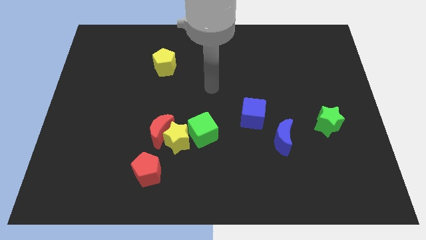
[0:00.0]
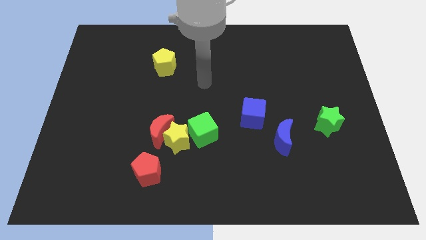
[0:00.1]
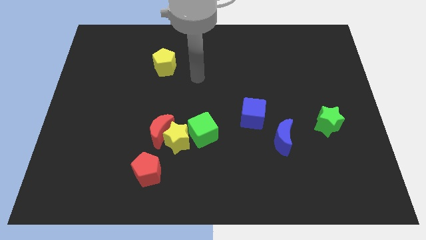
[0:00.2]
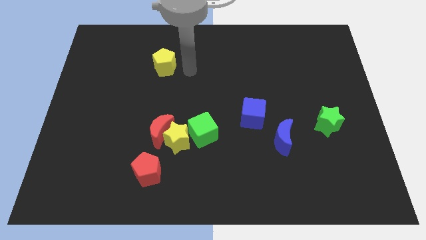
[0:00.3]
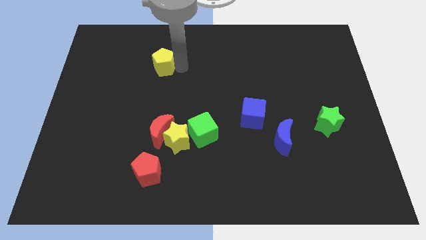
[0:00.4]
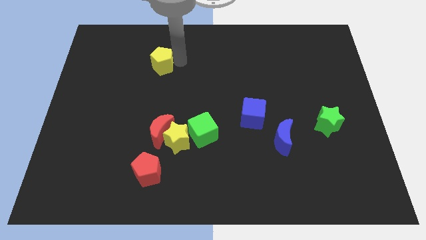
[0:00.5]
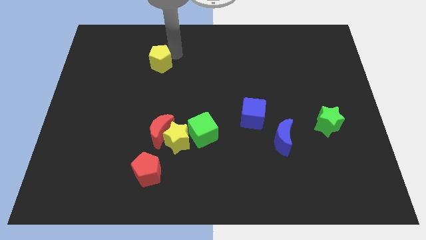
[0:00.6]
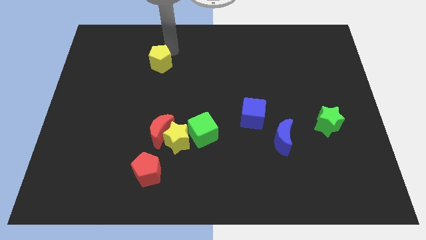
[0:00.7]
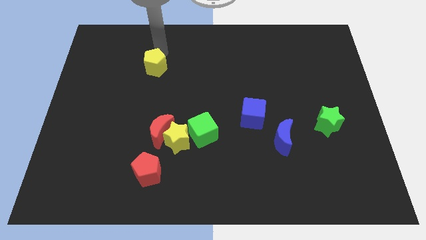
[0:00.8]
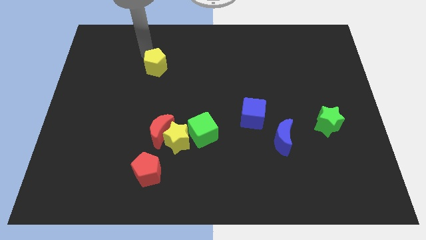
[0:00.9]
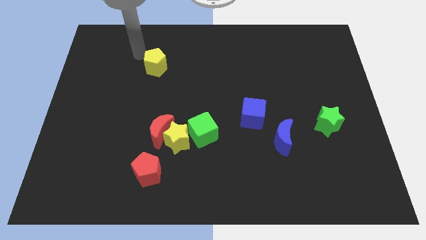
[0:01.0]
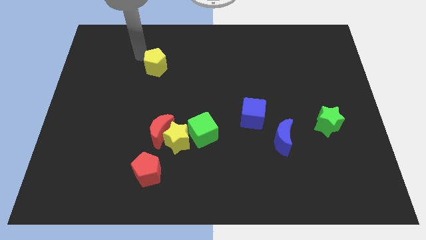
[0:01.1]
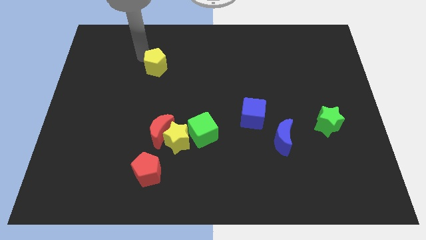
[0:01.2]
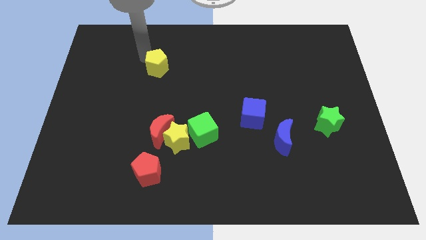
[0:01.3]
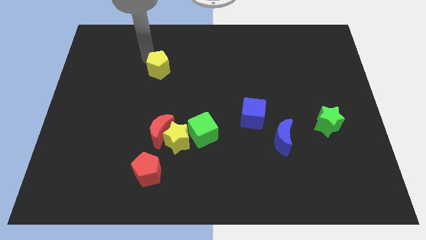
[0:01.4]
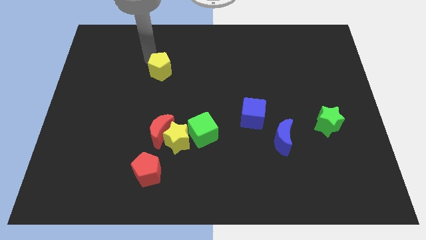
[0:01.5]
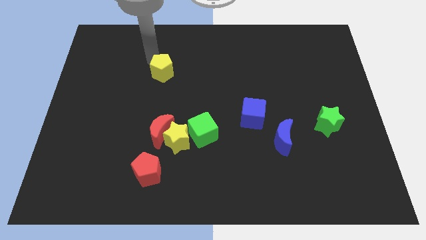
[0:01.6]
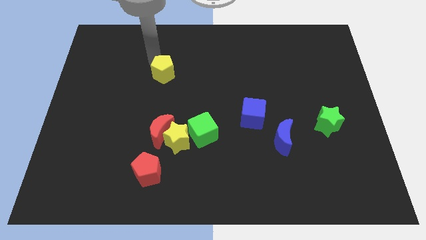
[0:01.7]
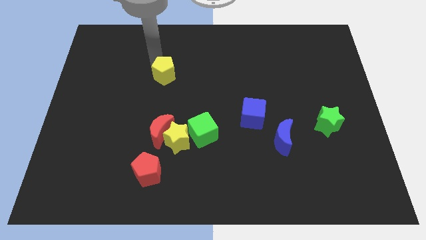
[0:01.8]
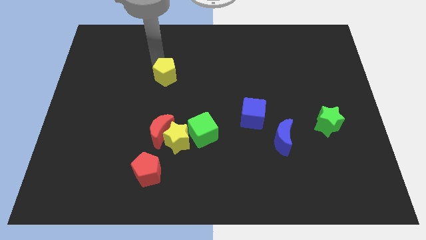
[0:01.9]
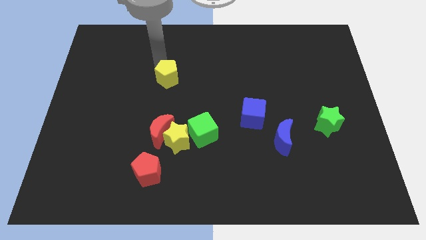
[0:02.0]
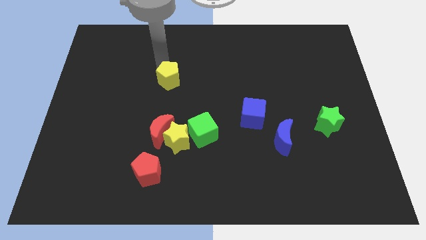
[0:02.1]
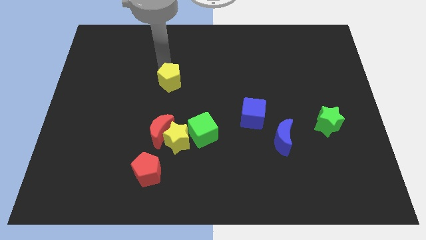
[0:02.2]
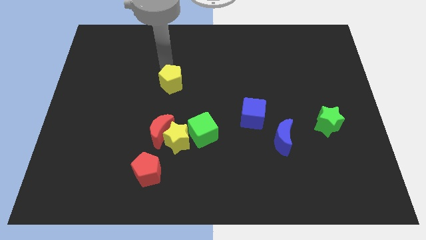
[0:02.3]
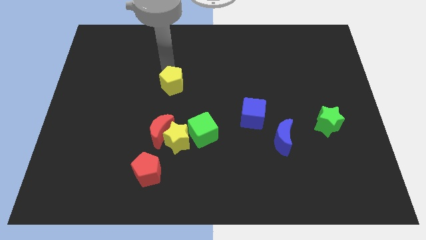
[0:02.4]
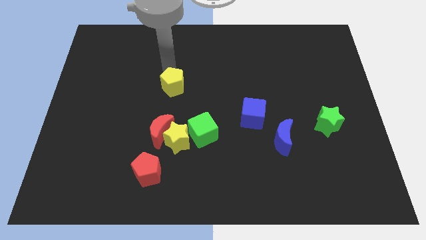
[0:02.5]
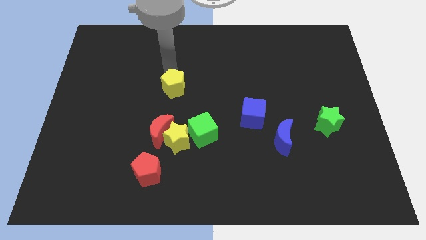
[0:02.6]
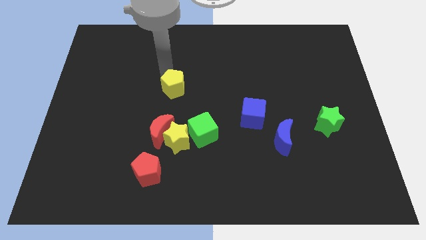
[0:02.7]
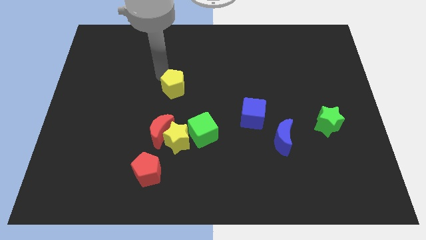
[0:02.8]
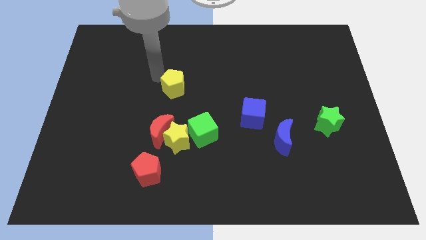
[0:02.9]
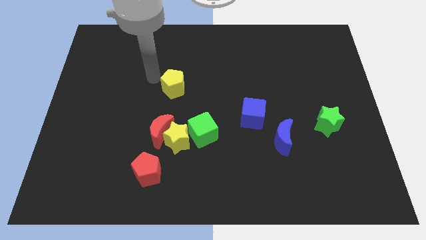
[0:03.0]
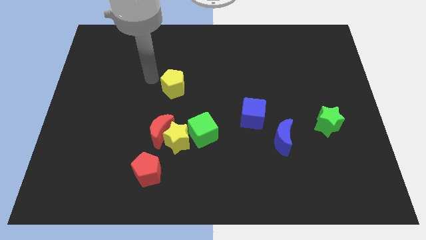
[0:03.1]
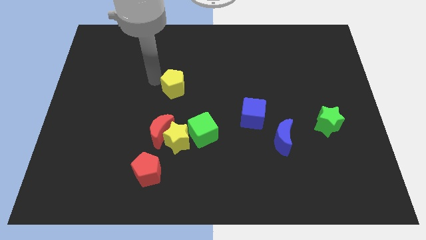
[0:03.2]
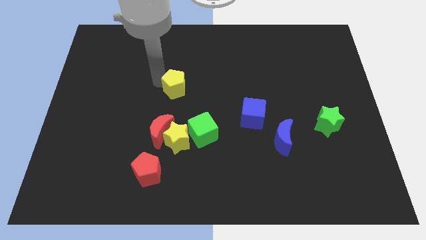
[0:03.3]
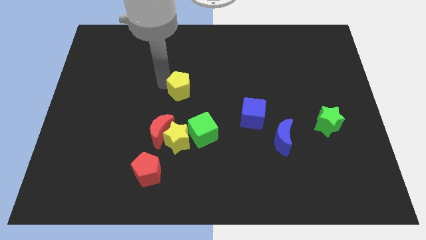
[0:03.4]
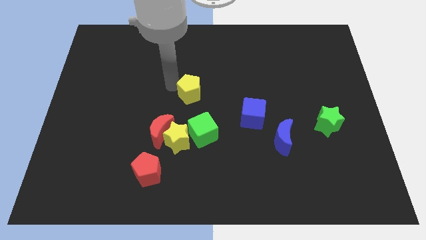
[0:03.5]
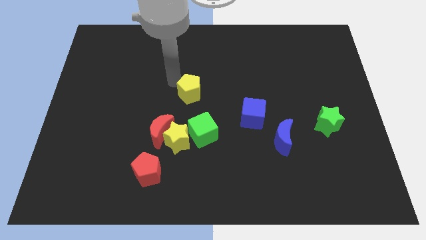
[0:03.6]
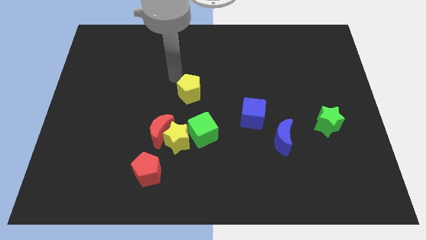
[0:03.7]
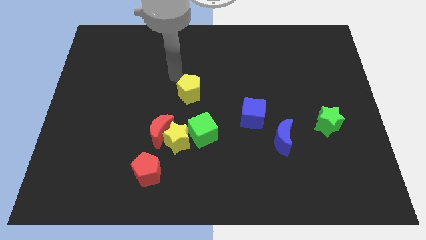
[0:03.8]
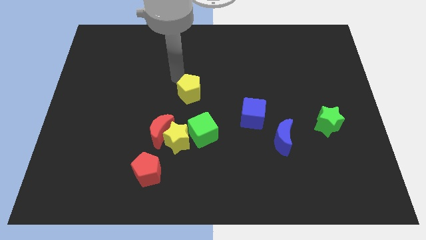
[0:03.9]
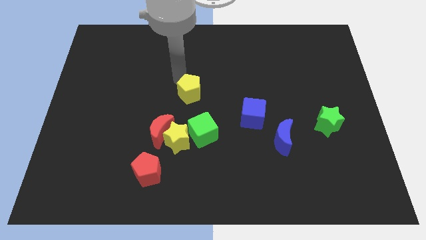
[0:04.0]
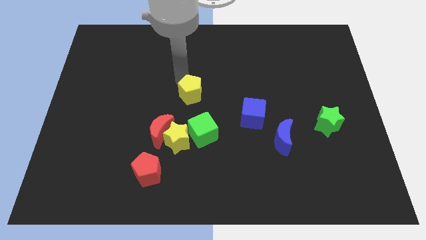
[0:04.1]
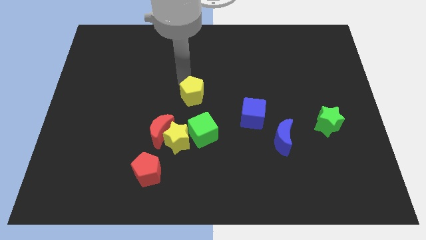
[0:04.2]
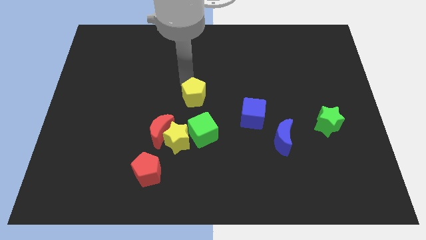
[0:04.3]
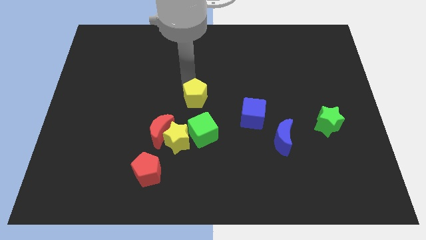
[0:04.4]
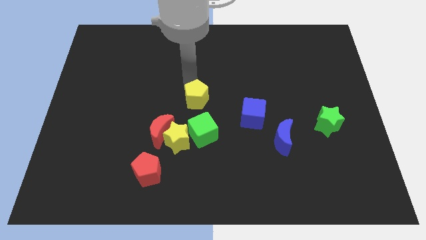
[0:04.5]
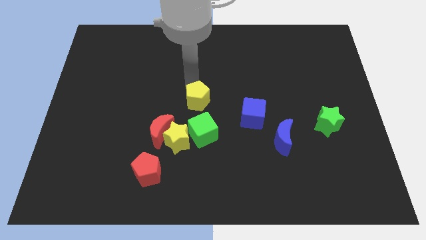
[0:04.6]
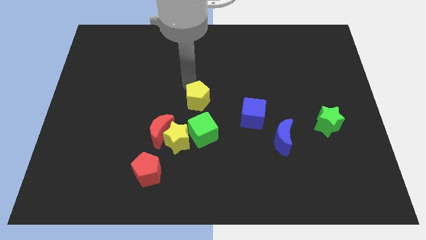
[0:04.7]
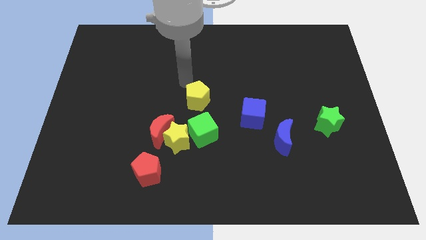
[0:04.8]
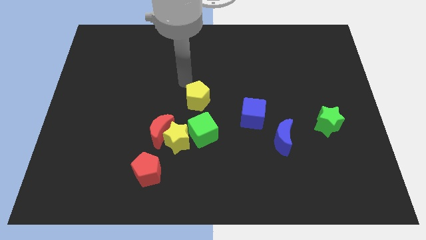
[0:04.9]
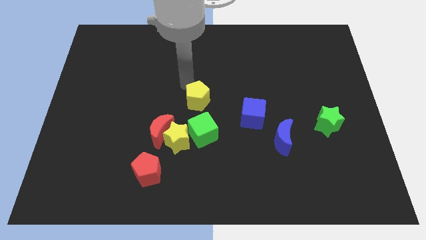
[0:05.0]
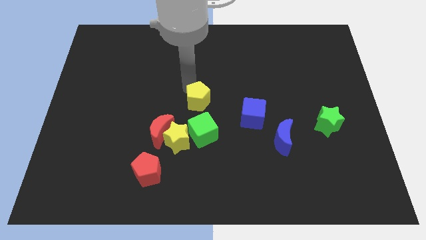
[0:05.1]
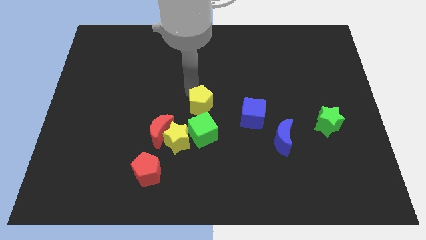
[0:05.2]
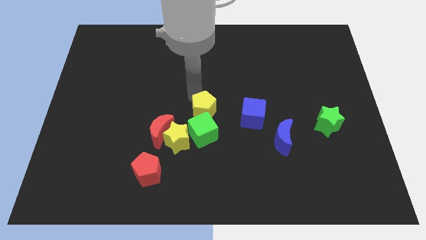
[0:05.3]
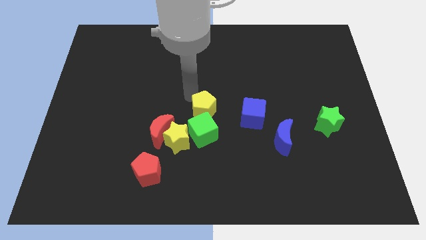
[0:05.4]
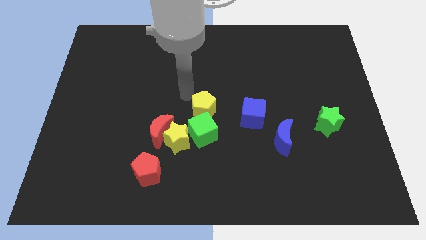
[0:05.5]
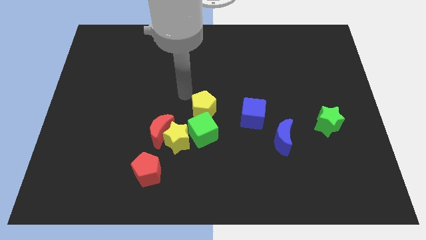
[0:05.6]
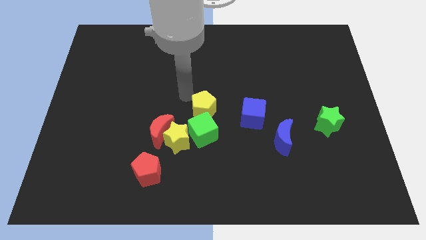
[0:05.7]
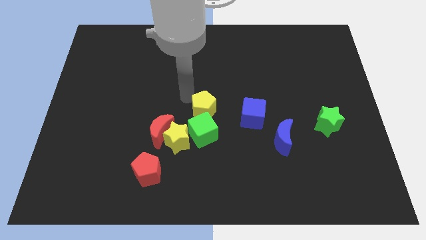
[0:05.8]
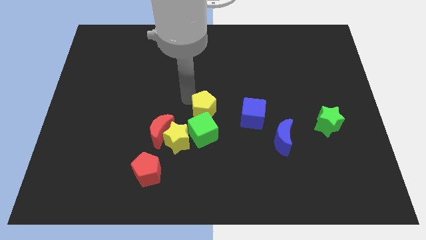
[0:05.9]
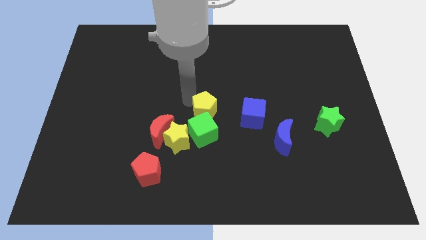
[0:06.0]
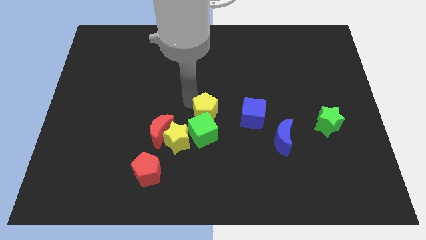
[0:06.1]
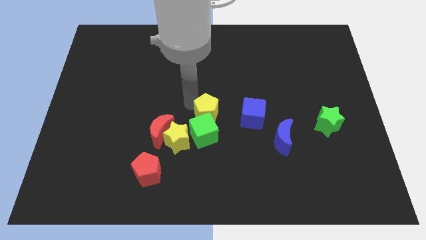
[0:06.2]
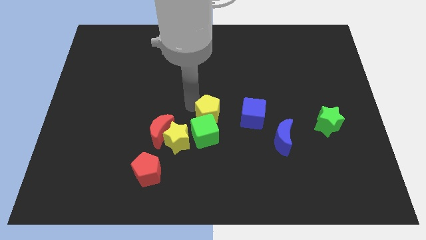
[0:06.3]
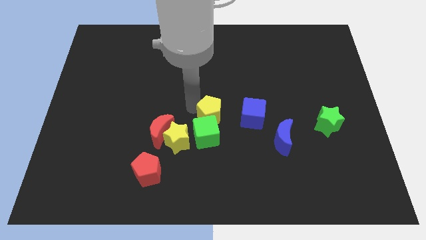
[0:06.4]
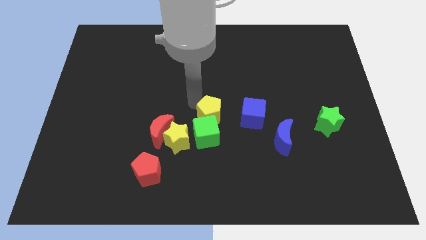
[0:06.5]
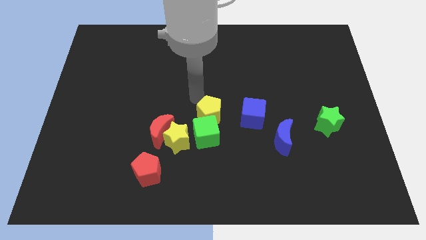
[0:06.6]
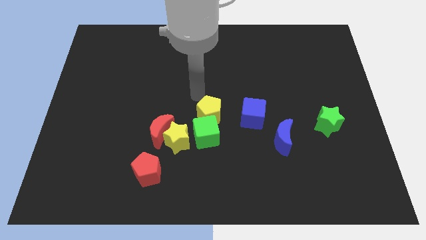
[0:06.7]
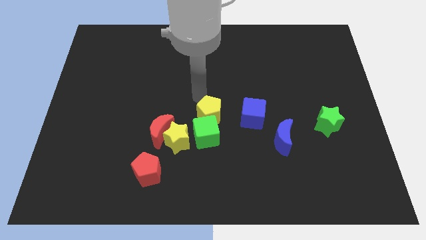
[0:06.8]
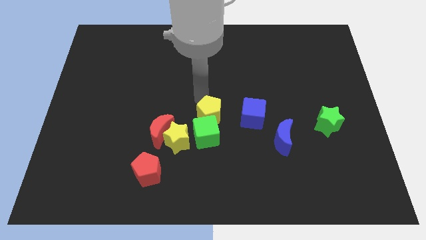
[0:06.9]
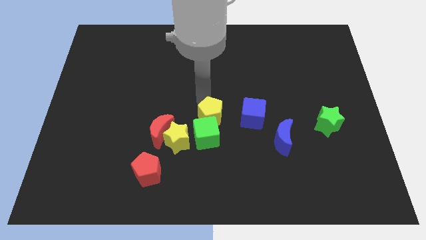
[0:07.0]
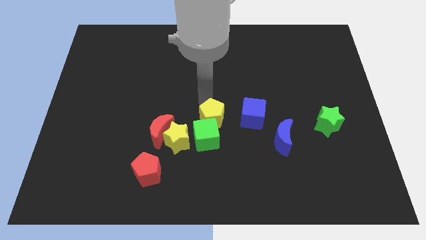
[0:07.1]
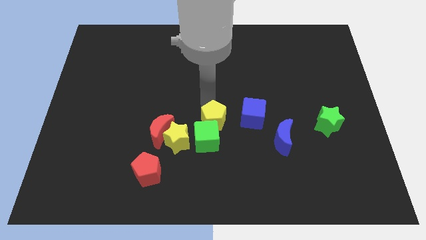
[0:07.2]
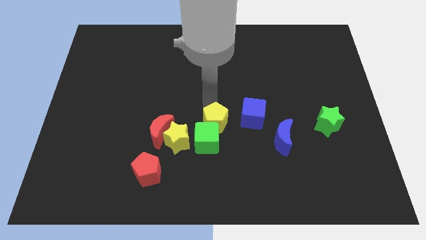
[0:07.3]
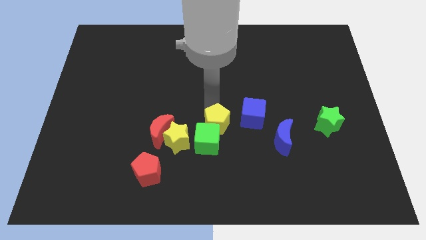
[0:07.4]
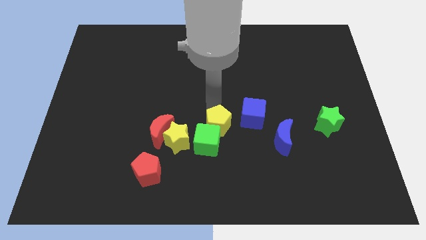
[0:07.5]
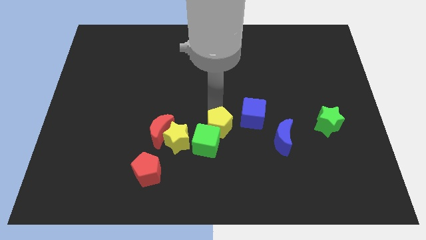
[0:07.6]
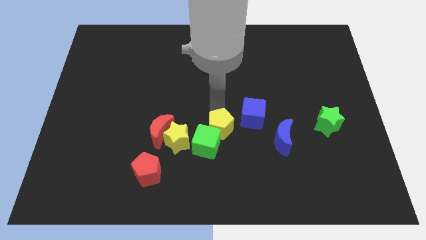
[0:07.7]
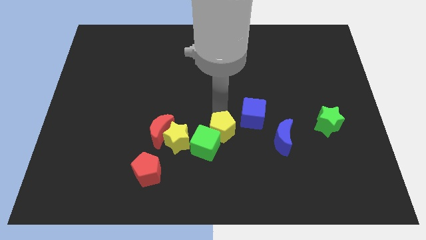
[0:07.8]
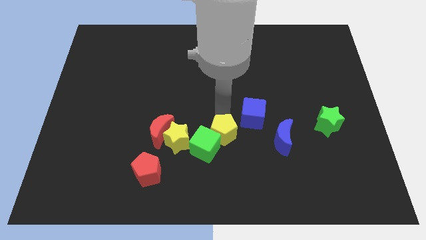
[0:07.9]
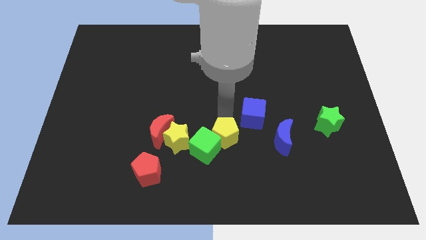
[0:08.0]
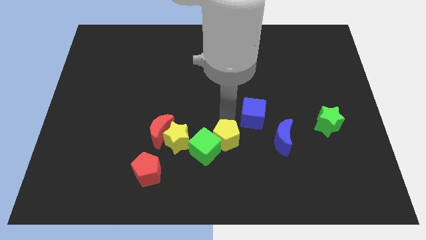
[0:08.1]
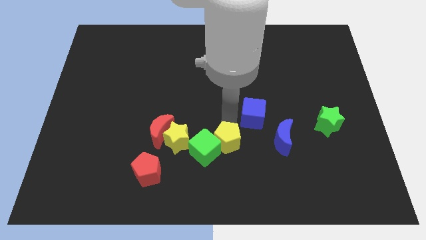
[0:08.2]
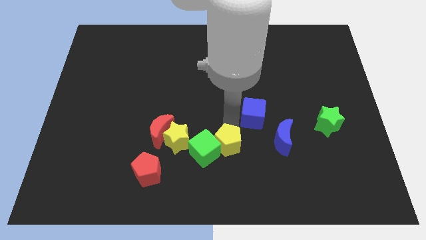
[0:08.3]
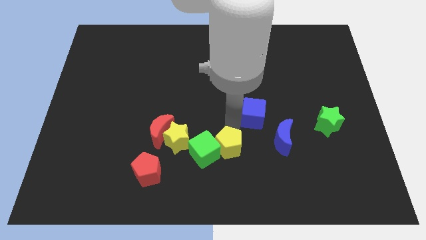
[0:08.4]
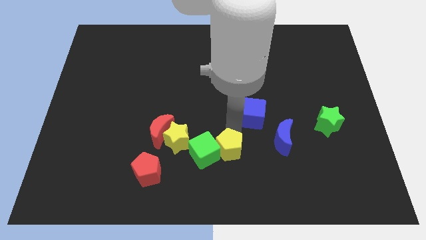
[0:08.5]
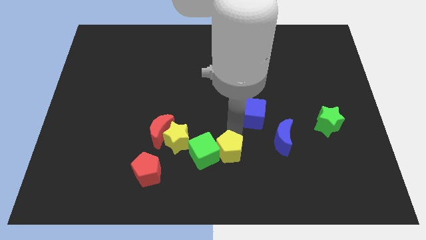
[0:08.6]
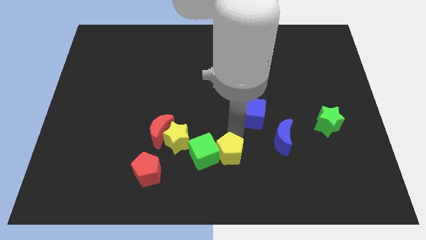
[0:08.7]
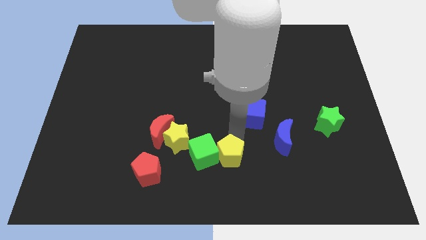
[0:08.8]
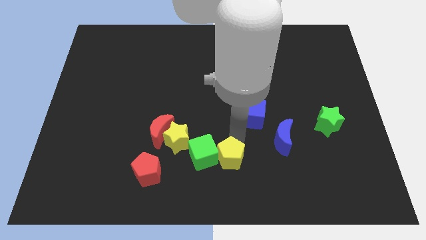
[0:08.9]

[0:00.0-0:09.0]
slide the yellow pentagon to the bottom
